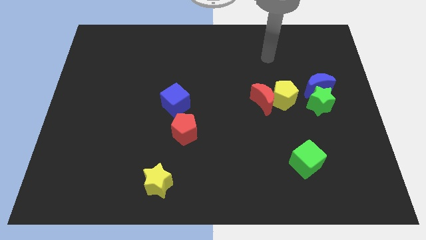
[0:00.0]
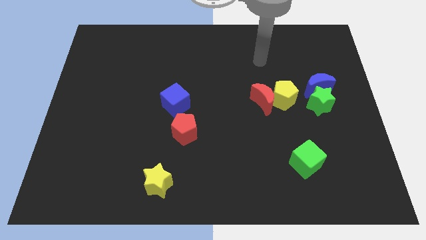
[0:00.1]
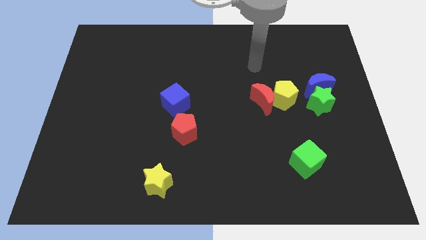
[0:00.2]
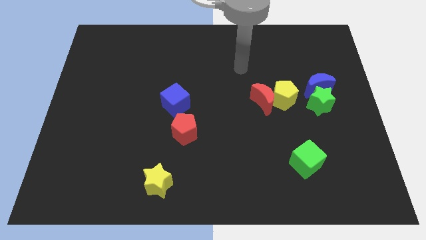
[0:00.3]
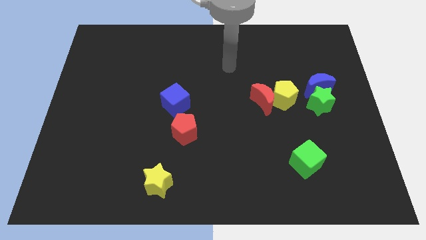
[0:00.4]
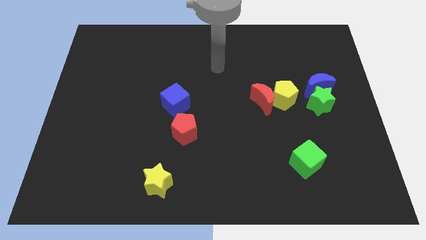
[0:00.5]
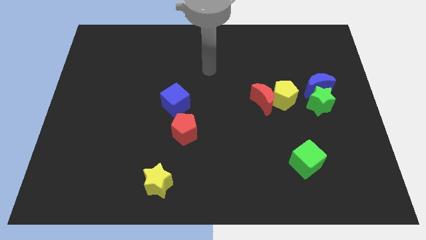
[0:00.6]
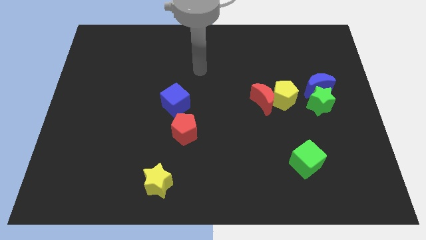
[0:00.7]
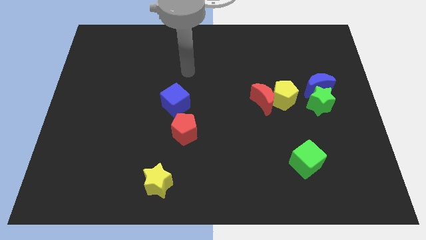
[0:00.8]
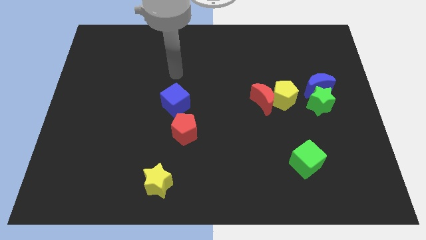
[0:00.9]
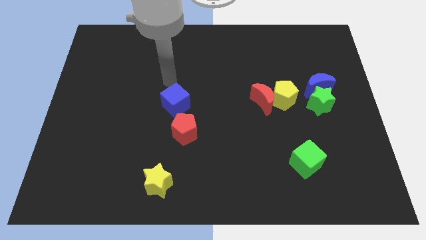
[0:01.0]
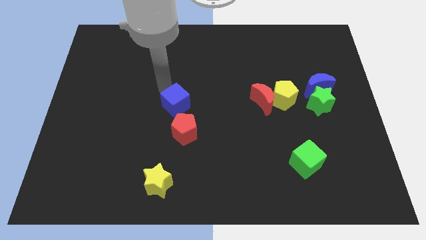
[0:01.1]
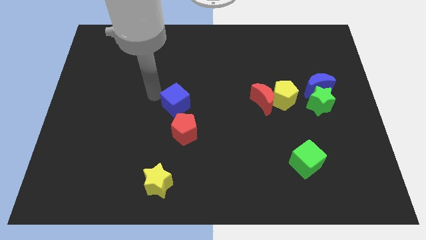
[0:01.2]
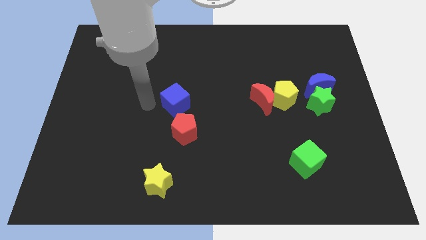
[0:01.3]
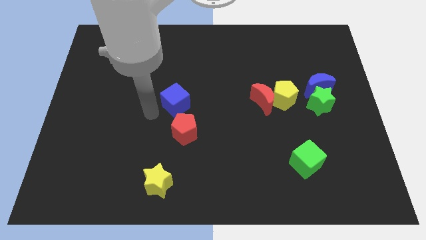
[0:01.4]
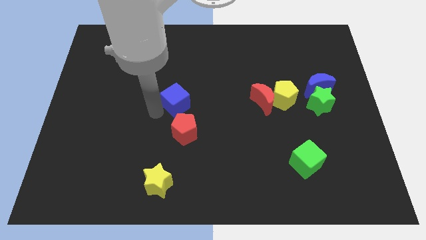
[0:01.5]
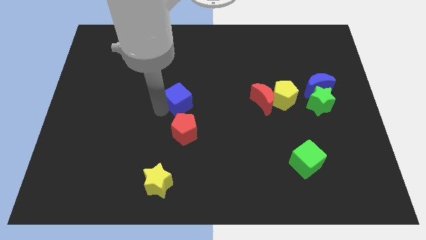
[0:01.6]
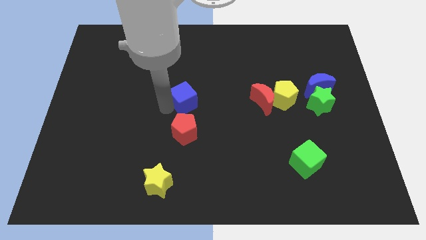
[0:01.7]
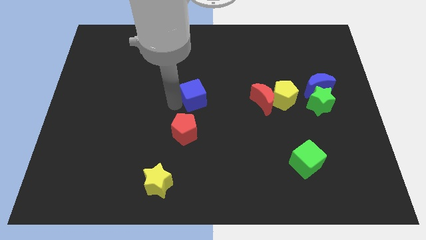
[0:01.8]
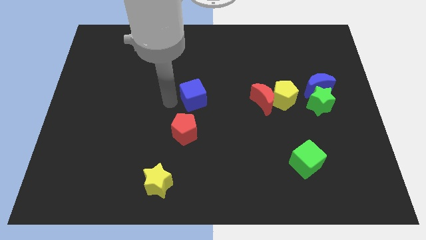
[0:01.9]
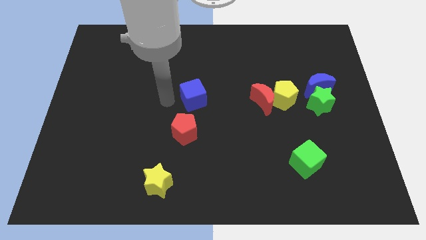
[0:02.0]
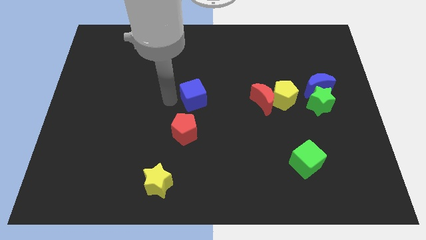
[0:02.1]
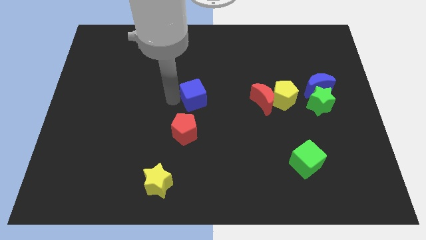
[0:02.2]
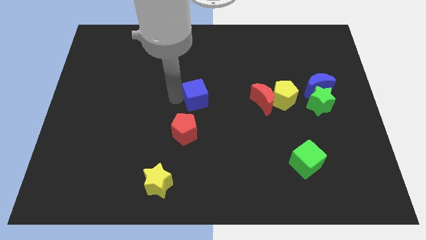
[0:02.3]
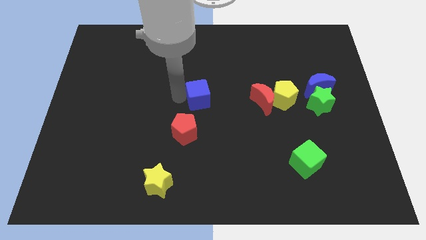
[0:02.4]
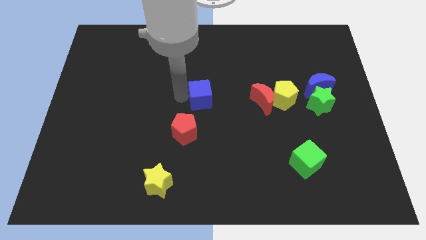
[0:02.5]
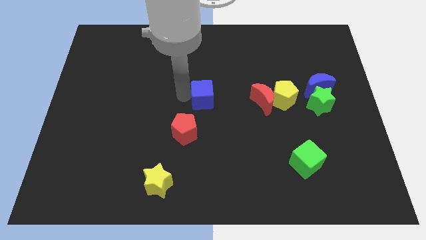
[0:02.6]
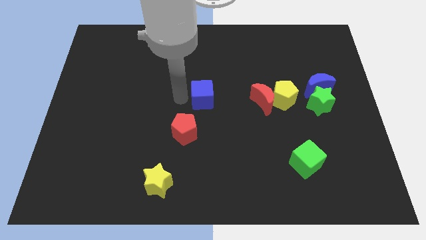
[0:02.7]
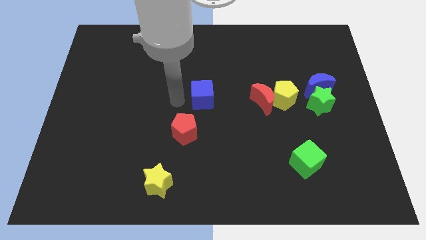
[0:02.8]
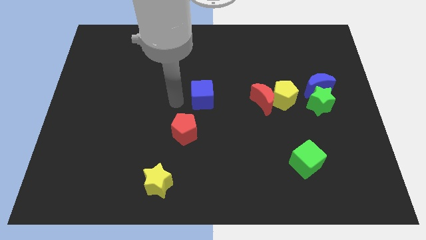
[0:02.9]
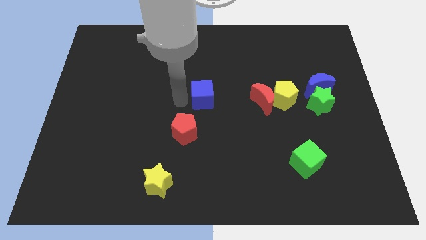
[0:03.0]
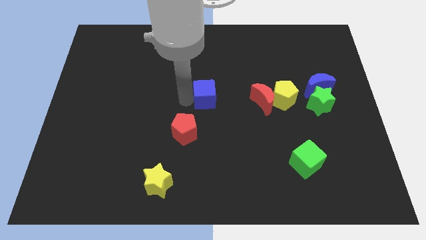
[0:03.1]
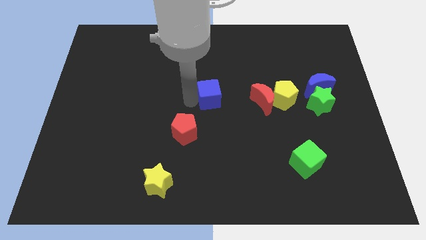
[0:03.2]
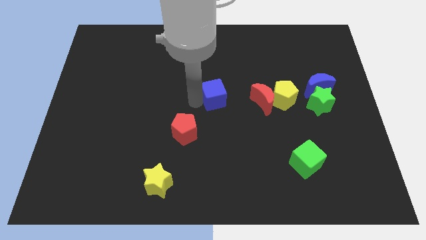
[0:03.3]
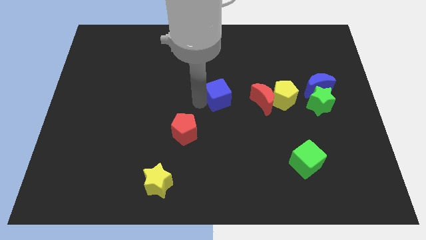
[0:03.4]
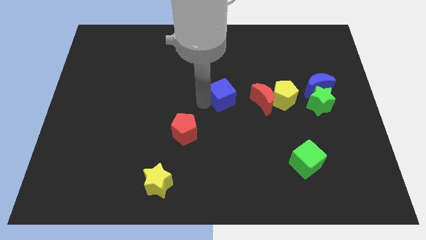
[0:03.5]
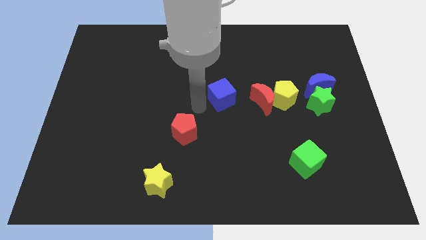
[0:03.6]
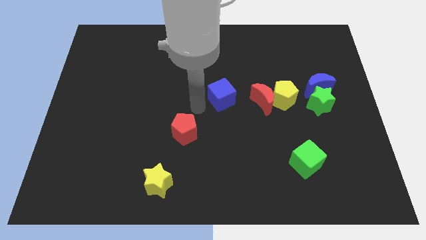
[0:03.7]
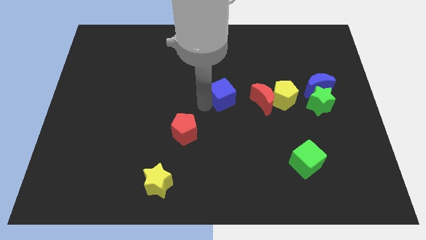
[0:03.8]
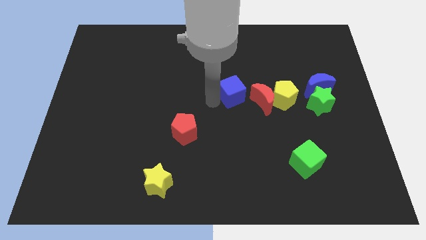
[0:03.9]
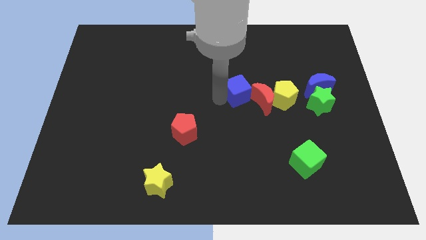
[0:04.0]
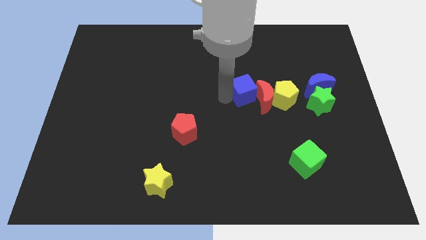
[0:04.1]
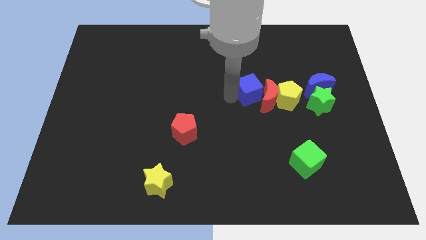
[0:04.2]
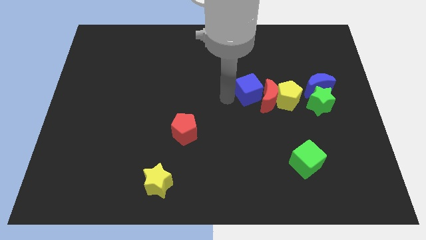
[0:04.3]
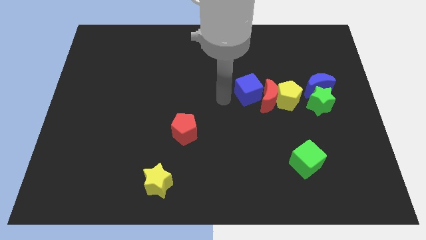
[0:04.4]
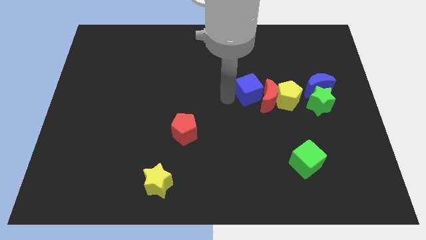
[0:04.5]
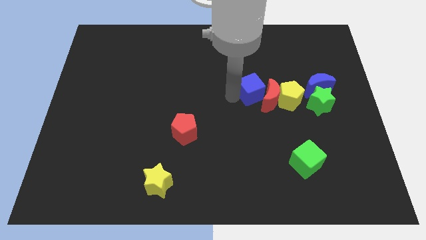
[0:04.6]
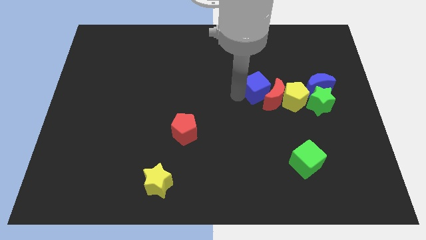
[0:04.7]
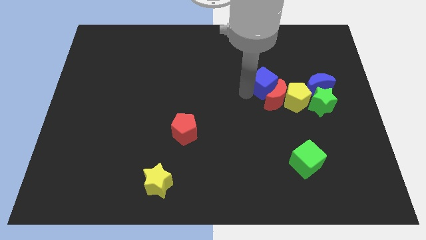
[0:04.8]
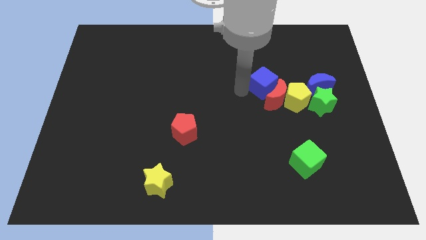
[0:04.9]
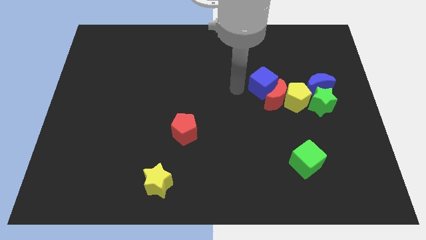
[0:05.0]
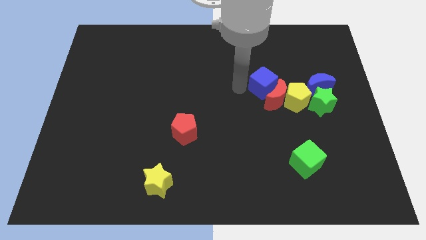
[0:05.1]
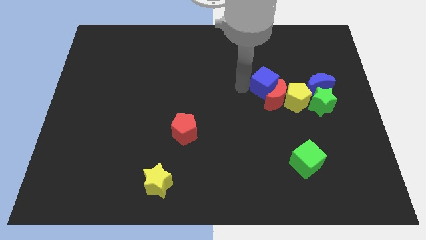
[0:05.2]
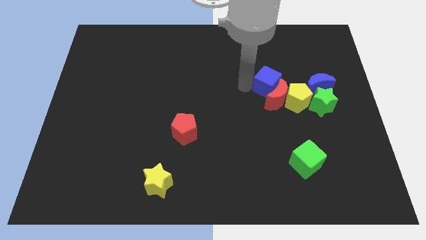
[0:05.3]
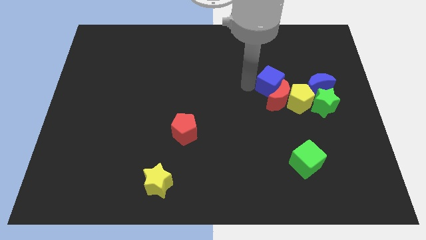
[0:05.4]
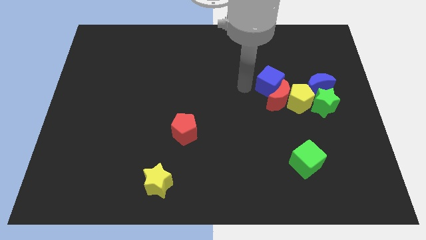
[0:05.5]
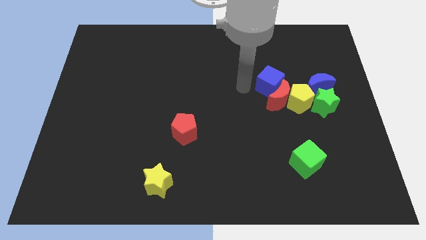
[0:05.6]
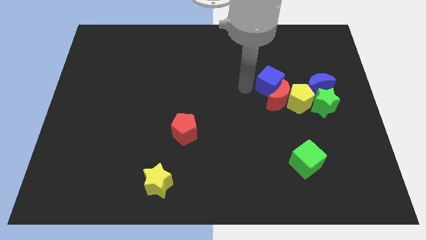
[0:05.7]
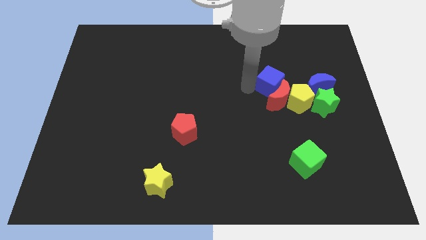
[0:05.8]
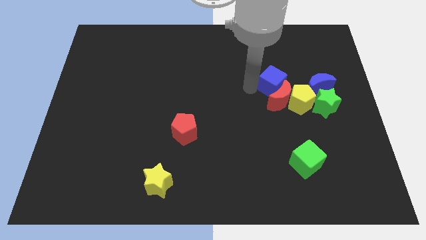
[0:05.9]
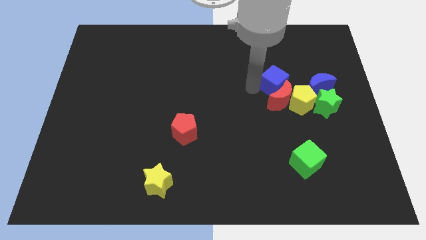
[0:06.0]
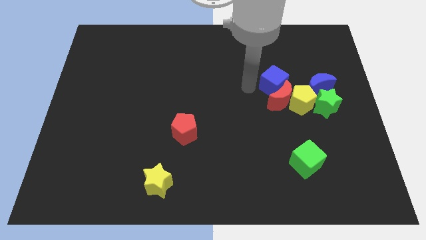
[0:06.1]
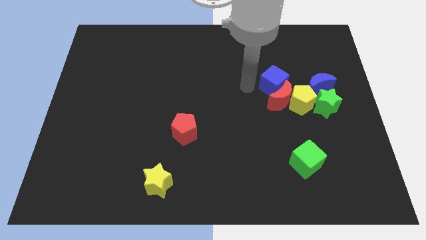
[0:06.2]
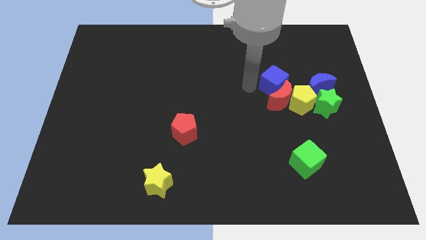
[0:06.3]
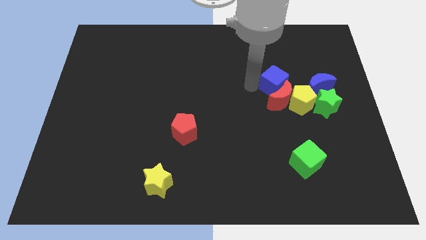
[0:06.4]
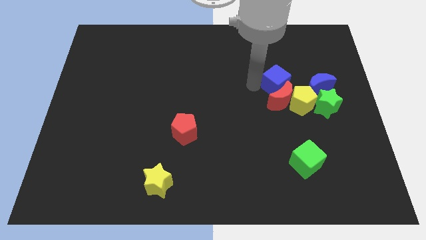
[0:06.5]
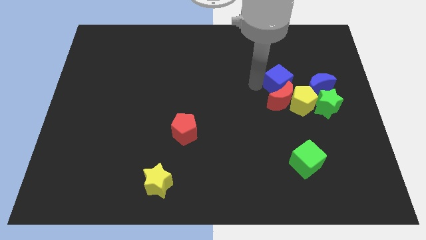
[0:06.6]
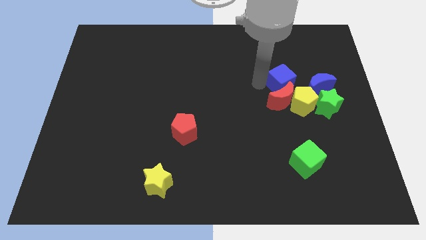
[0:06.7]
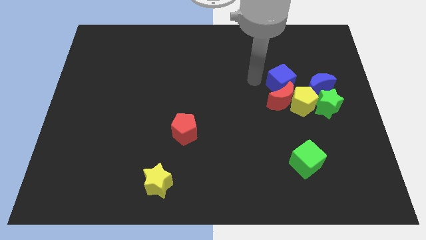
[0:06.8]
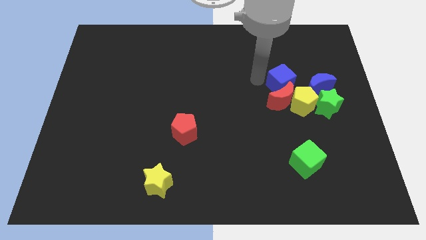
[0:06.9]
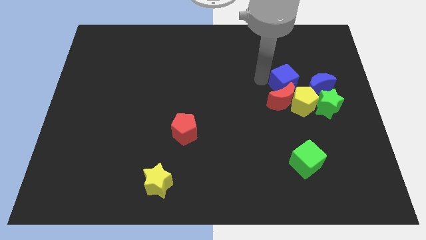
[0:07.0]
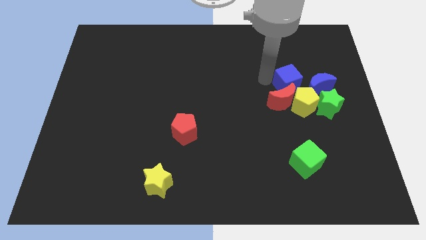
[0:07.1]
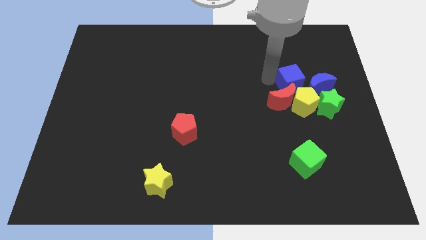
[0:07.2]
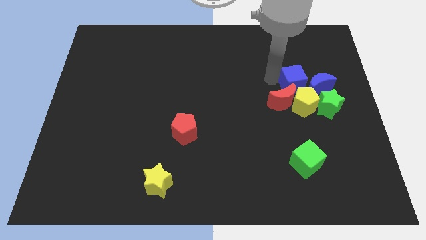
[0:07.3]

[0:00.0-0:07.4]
push the blue cube next to the blue moon
